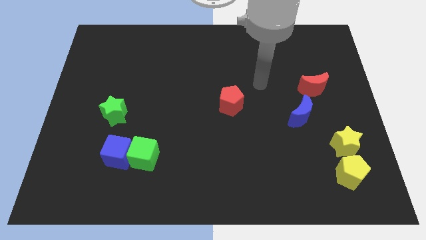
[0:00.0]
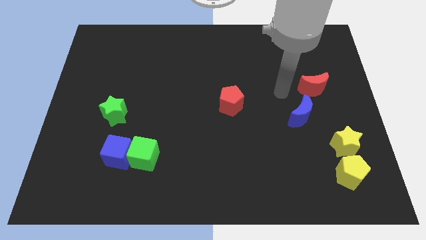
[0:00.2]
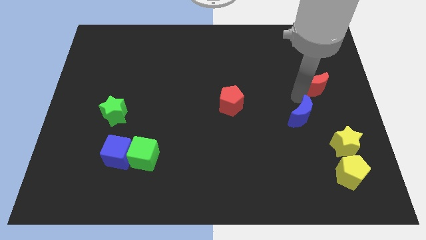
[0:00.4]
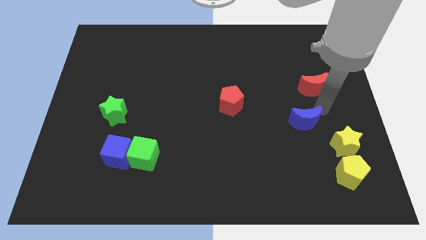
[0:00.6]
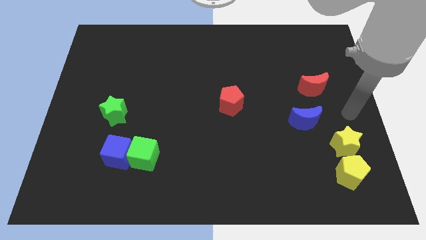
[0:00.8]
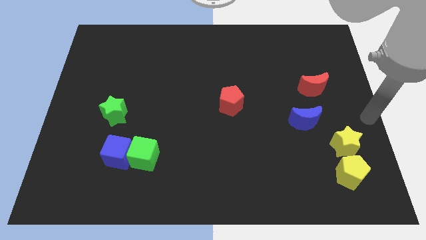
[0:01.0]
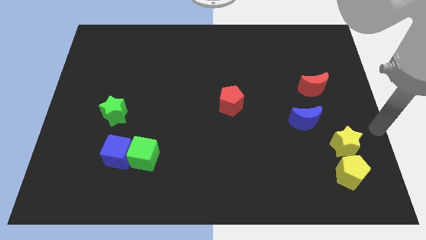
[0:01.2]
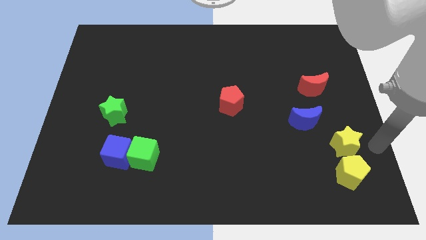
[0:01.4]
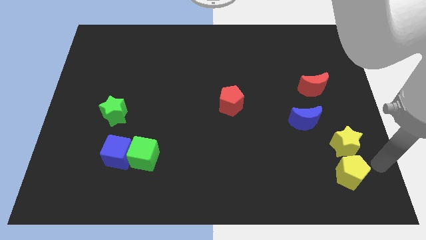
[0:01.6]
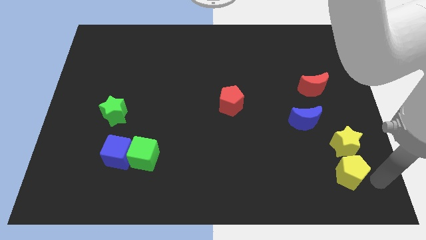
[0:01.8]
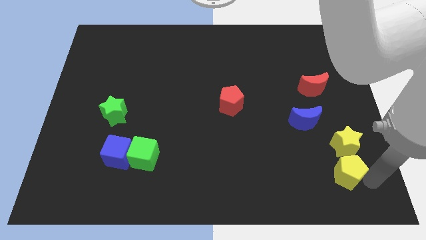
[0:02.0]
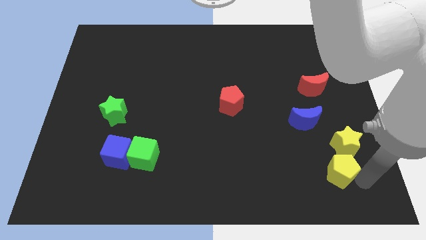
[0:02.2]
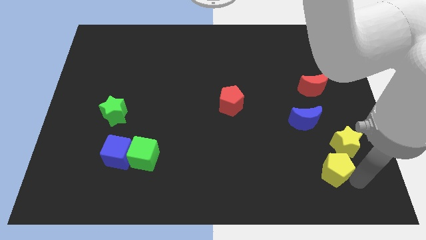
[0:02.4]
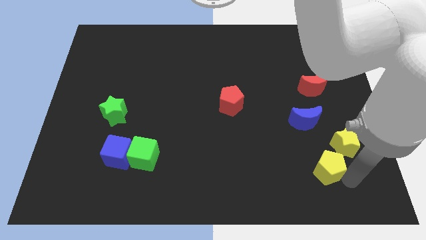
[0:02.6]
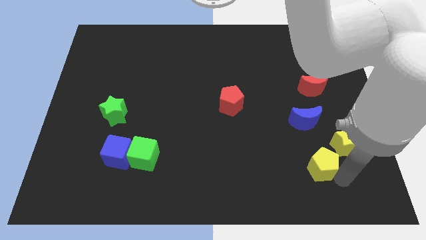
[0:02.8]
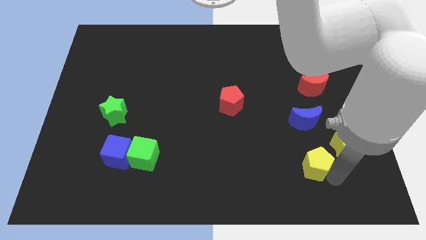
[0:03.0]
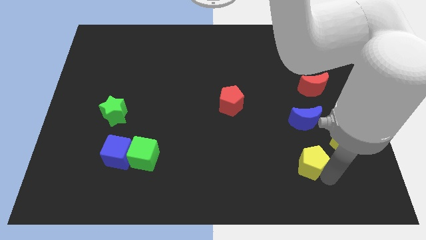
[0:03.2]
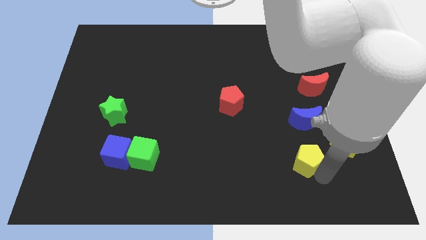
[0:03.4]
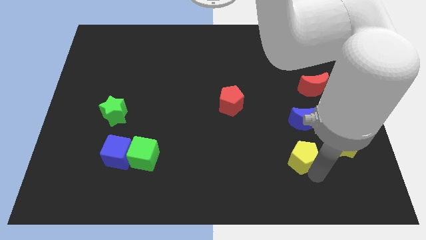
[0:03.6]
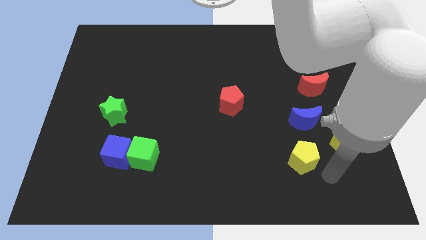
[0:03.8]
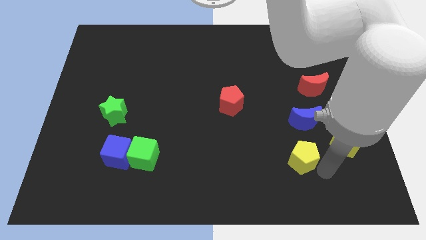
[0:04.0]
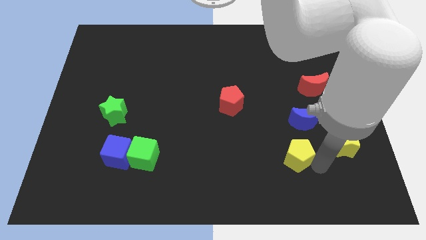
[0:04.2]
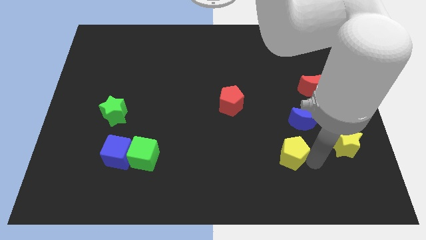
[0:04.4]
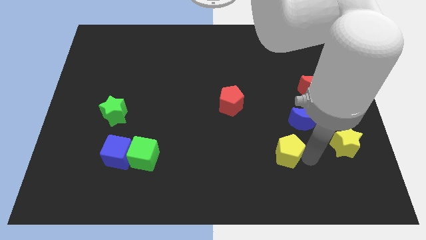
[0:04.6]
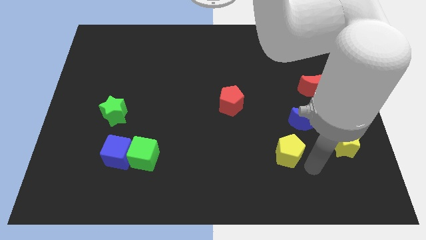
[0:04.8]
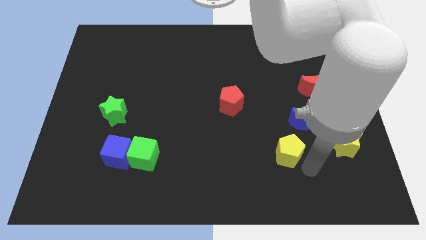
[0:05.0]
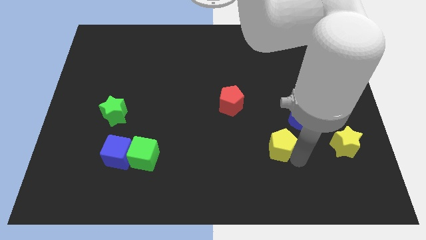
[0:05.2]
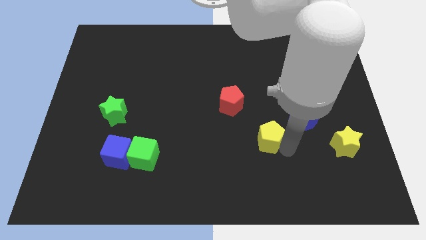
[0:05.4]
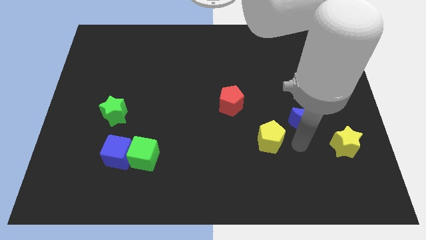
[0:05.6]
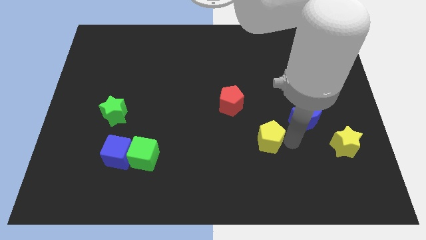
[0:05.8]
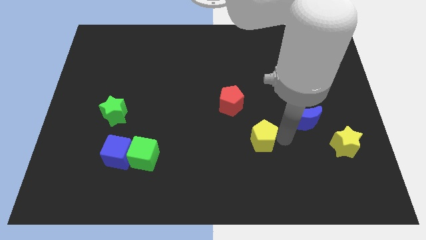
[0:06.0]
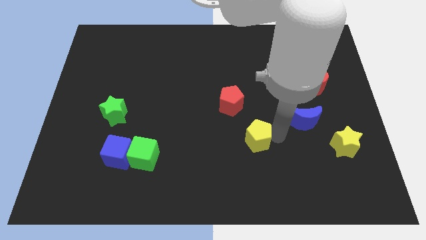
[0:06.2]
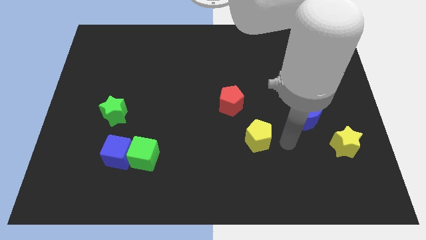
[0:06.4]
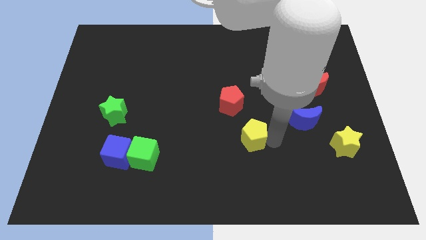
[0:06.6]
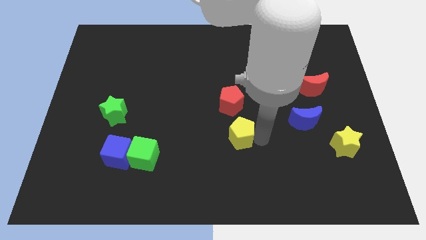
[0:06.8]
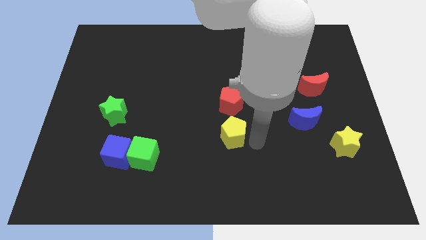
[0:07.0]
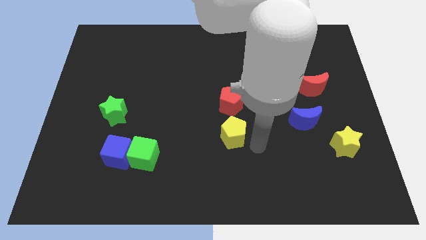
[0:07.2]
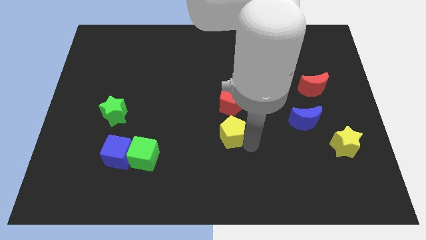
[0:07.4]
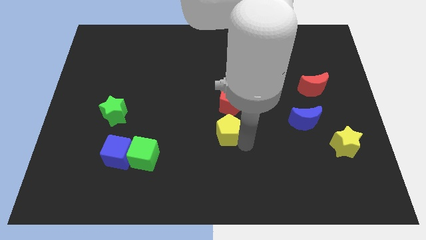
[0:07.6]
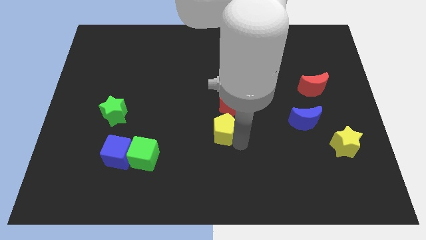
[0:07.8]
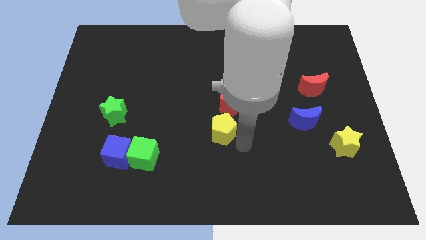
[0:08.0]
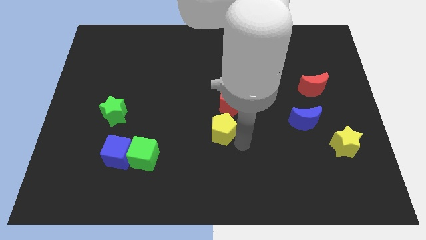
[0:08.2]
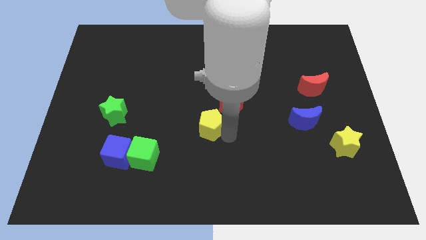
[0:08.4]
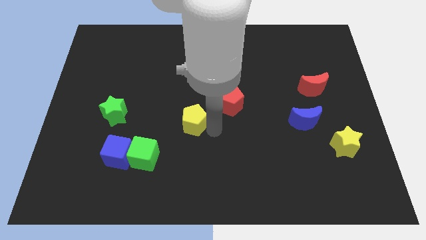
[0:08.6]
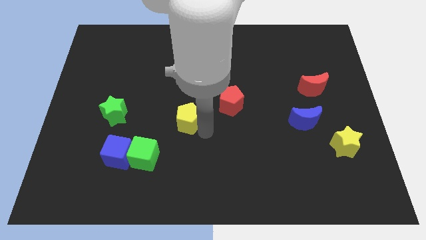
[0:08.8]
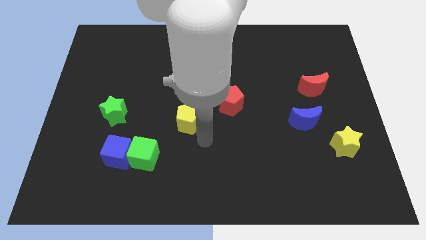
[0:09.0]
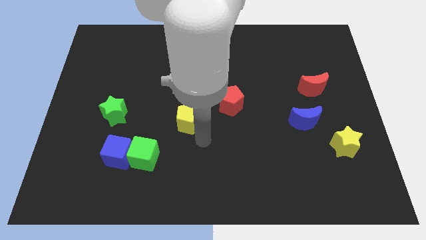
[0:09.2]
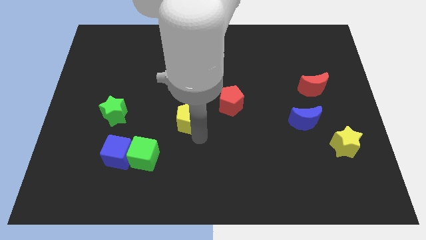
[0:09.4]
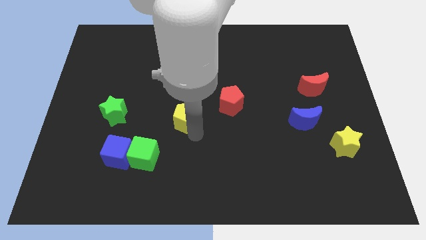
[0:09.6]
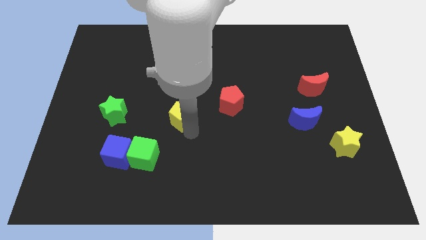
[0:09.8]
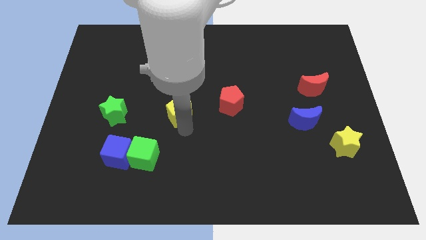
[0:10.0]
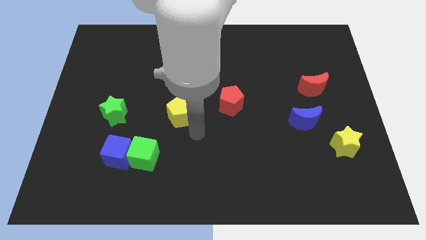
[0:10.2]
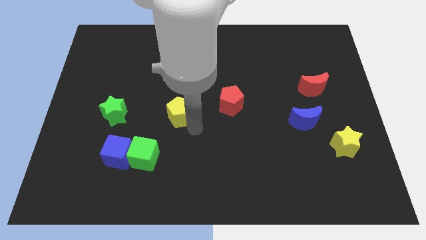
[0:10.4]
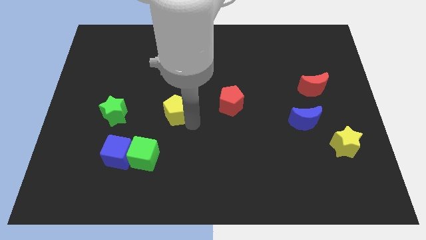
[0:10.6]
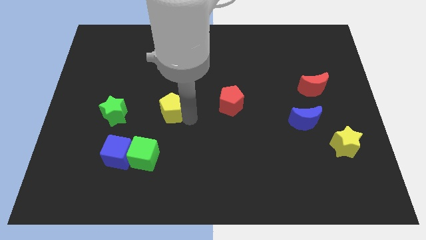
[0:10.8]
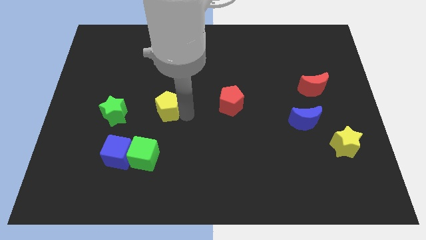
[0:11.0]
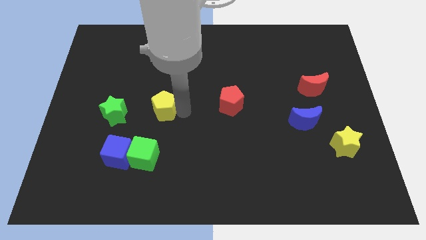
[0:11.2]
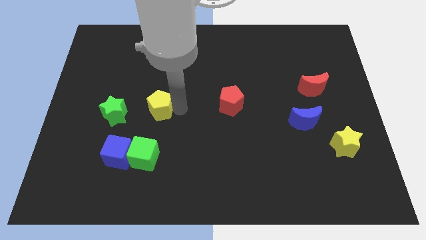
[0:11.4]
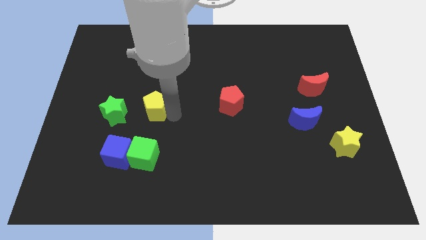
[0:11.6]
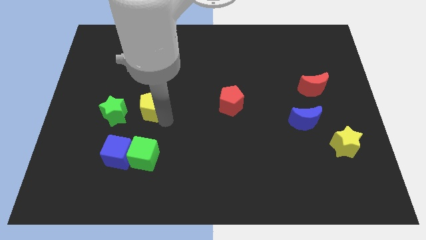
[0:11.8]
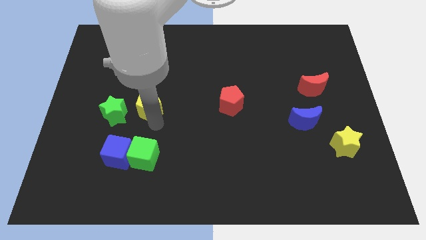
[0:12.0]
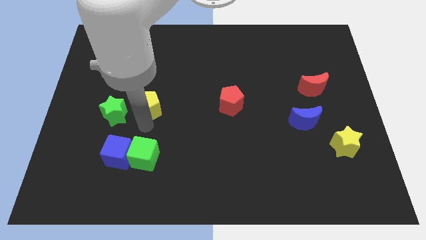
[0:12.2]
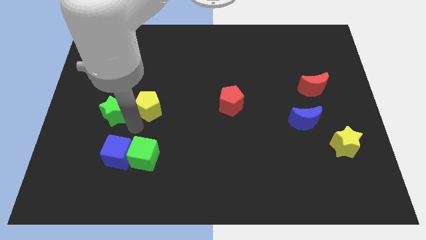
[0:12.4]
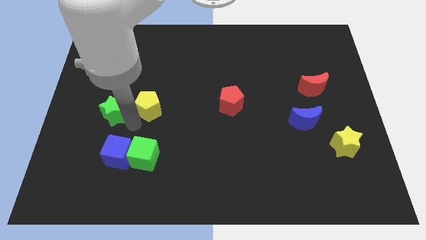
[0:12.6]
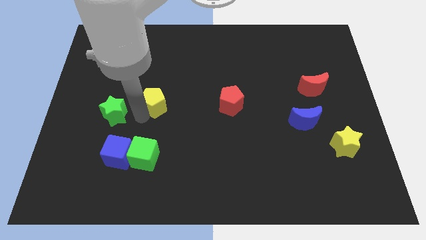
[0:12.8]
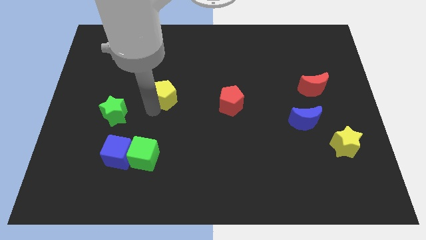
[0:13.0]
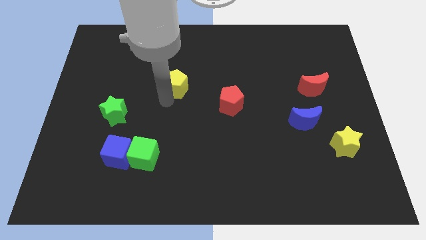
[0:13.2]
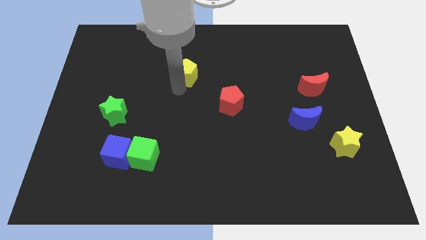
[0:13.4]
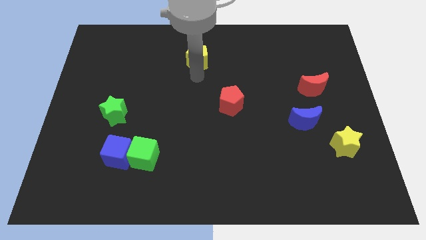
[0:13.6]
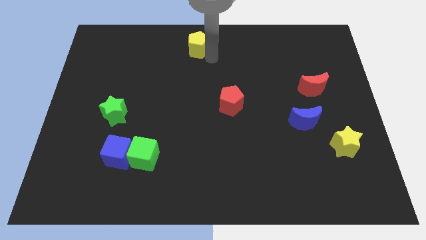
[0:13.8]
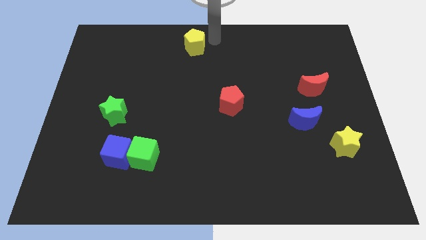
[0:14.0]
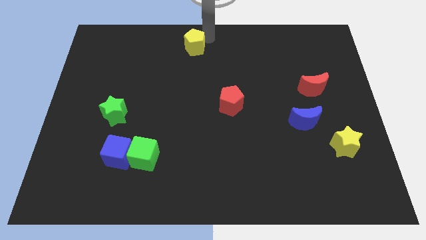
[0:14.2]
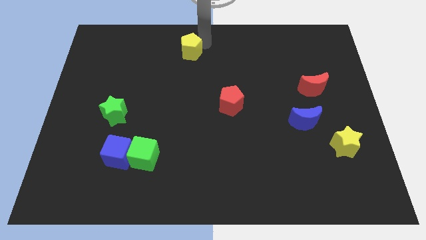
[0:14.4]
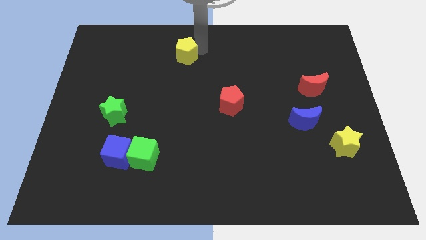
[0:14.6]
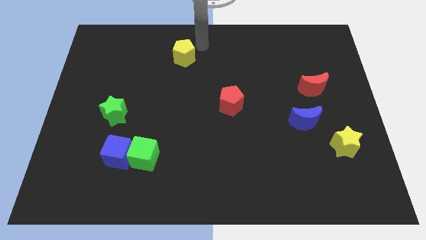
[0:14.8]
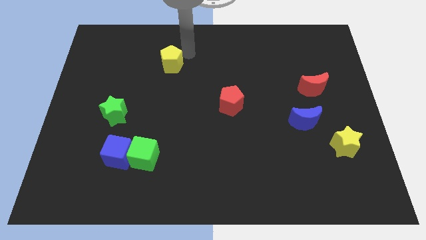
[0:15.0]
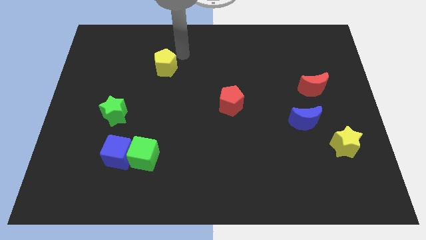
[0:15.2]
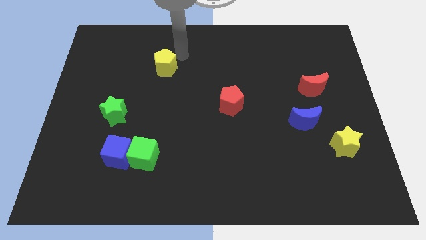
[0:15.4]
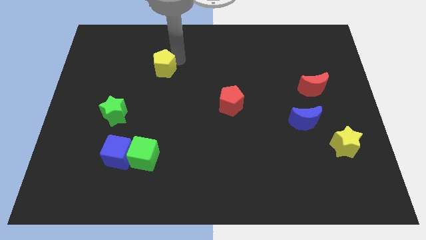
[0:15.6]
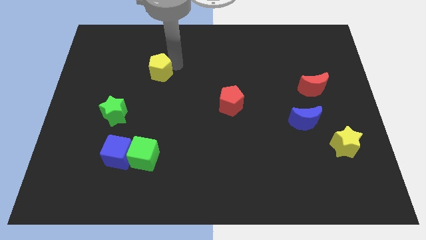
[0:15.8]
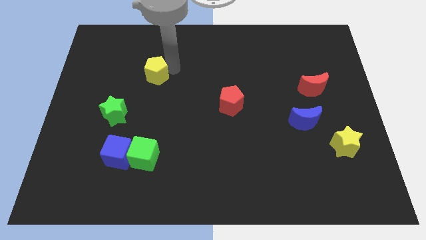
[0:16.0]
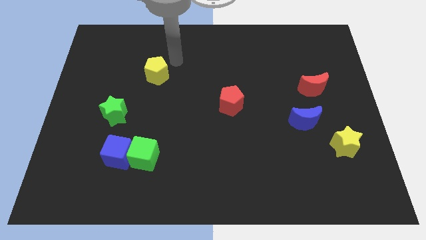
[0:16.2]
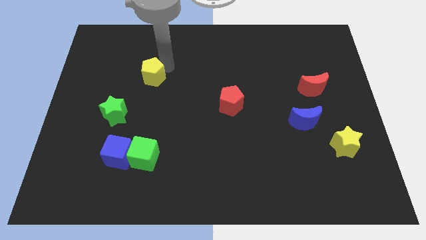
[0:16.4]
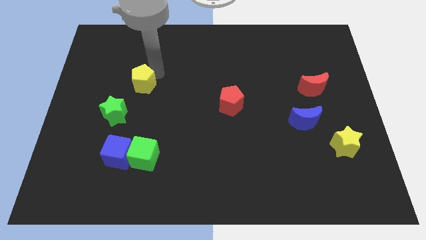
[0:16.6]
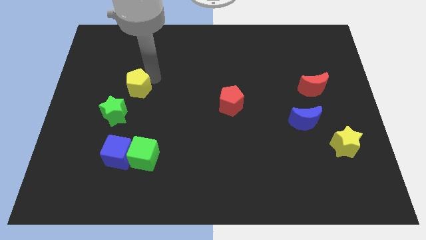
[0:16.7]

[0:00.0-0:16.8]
push the yellow pentagon to the top of the green star
